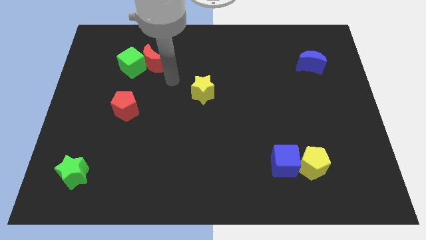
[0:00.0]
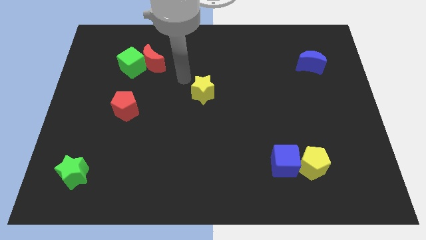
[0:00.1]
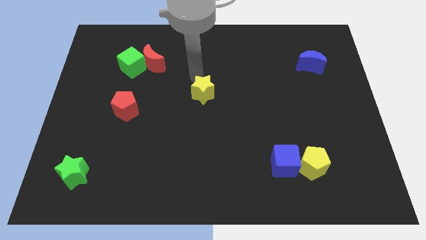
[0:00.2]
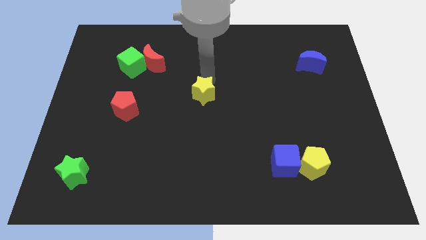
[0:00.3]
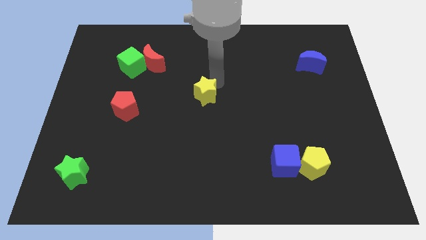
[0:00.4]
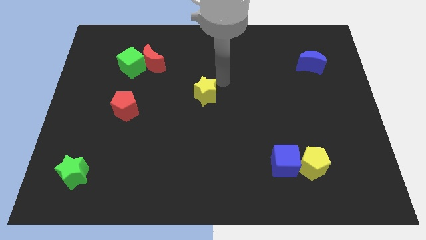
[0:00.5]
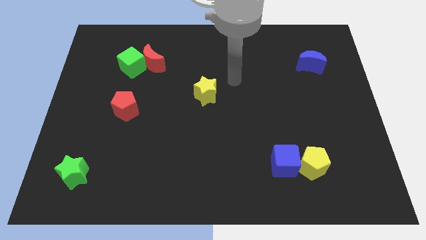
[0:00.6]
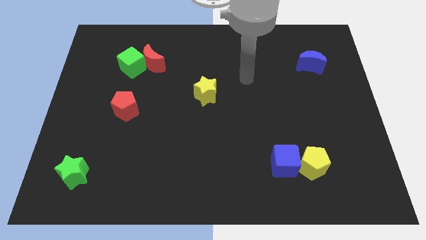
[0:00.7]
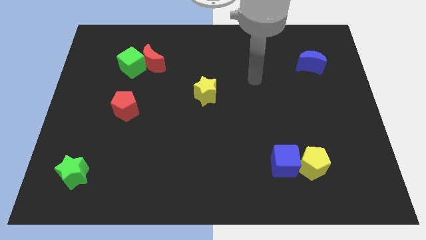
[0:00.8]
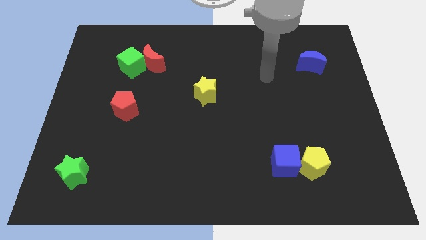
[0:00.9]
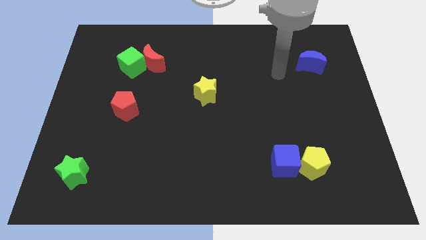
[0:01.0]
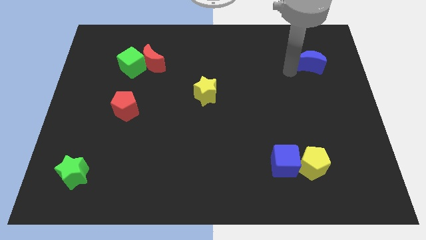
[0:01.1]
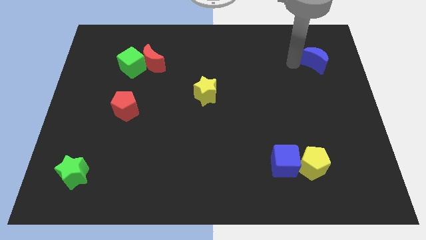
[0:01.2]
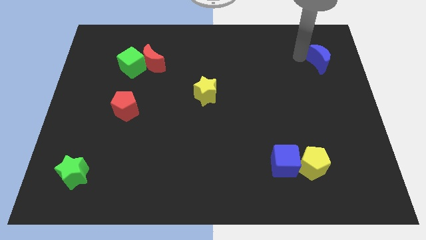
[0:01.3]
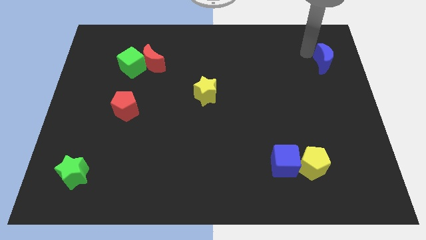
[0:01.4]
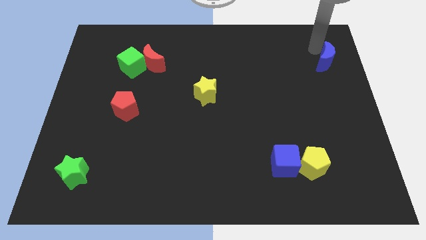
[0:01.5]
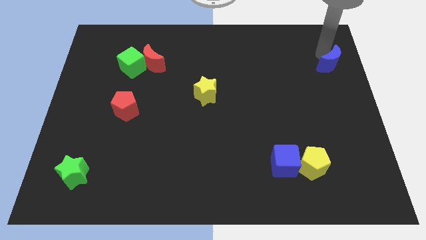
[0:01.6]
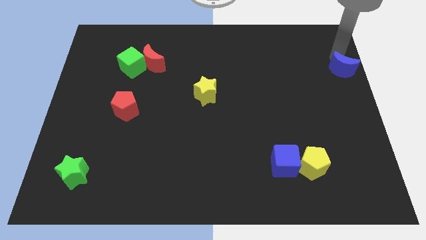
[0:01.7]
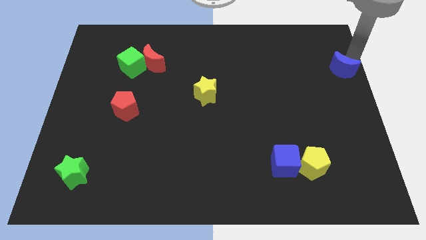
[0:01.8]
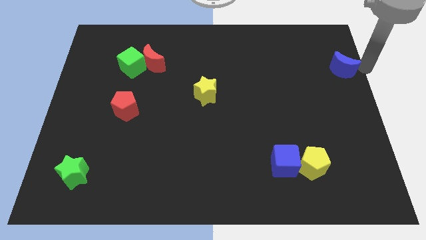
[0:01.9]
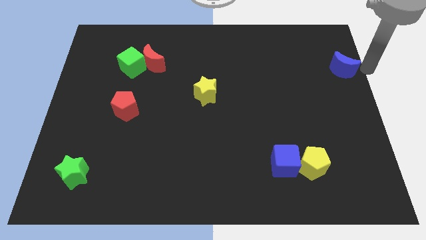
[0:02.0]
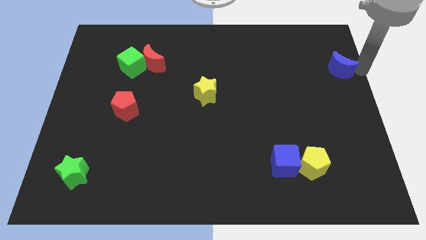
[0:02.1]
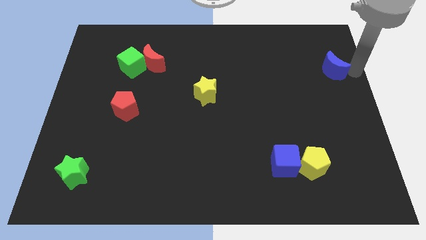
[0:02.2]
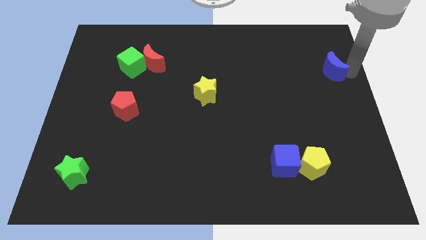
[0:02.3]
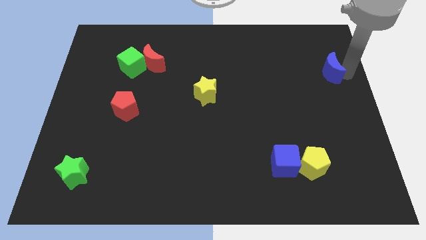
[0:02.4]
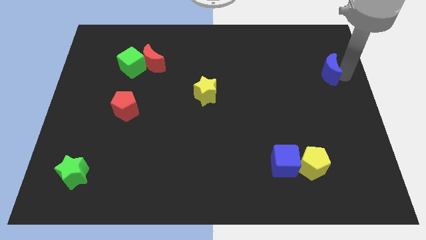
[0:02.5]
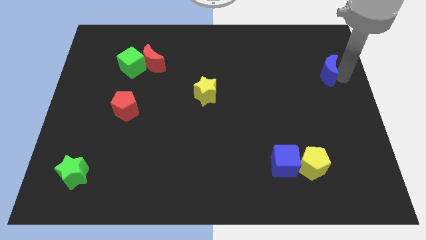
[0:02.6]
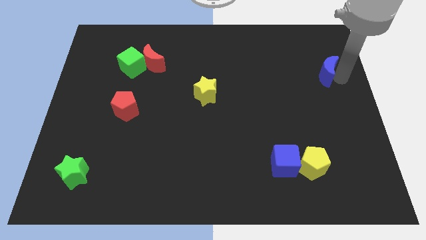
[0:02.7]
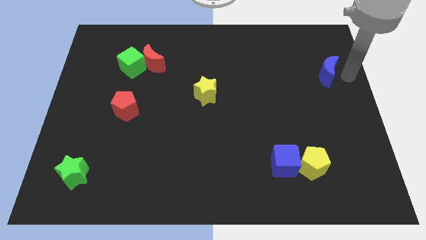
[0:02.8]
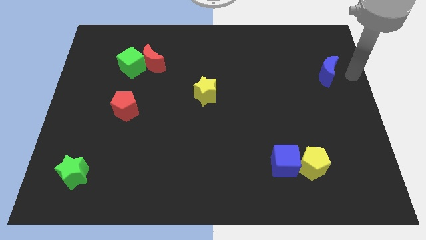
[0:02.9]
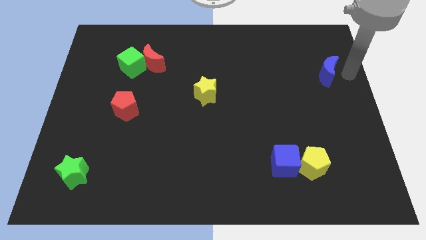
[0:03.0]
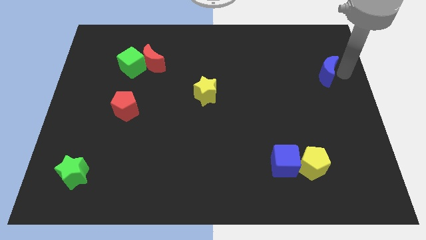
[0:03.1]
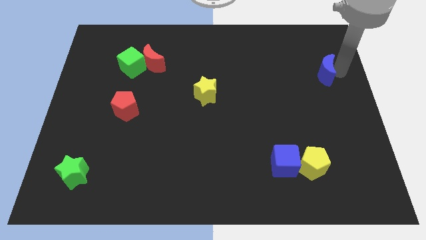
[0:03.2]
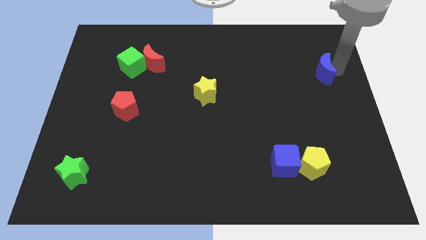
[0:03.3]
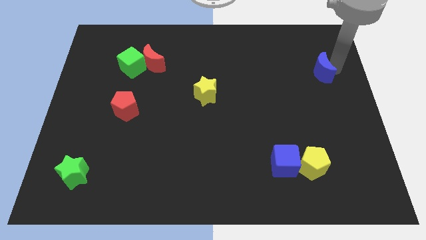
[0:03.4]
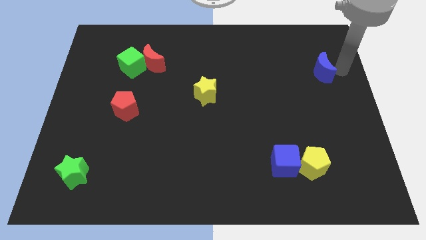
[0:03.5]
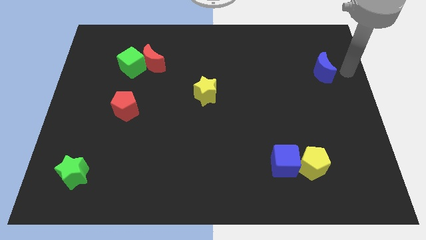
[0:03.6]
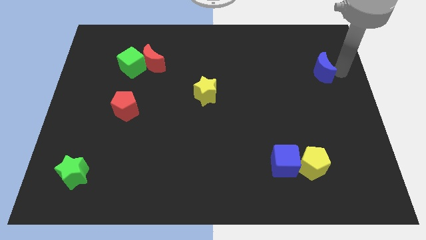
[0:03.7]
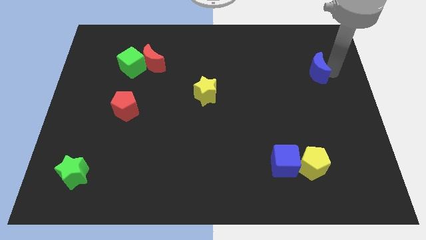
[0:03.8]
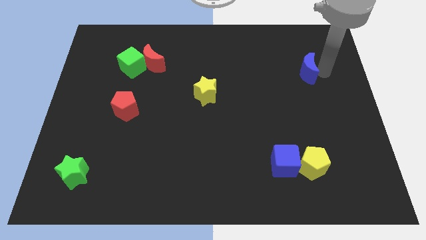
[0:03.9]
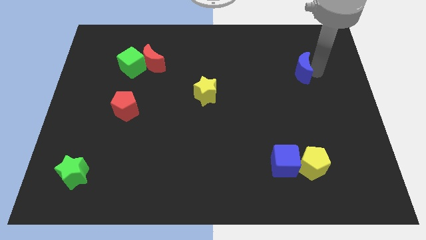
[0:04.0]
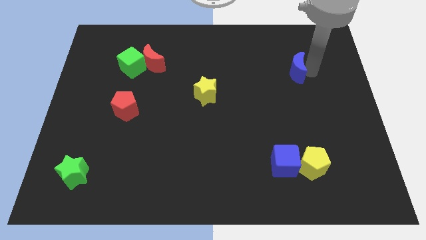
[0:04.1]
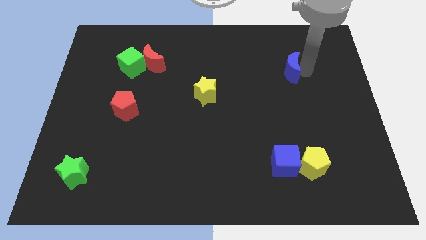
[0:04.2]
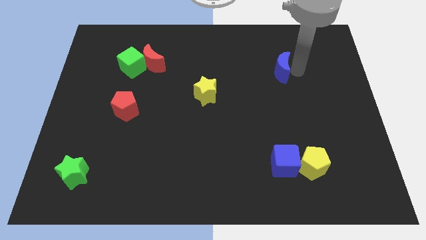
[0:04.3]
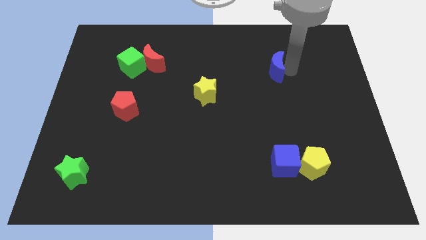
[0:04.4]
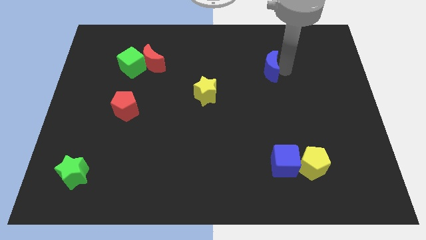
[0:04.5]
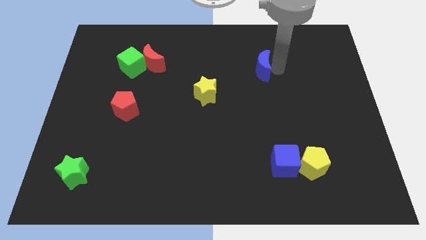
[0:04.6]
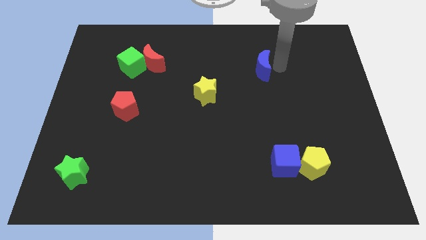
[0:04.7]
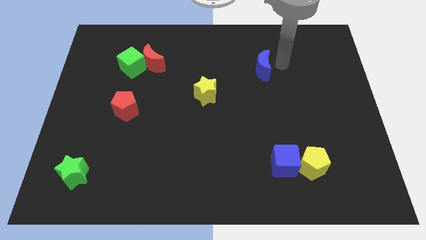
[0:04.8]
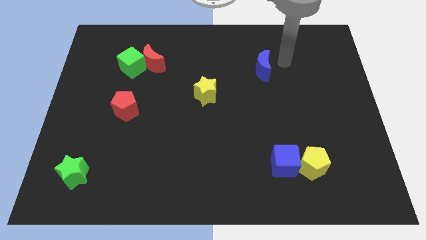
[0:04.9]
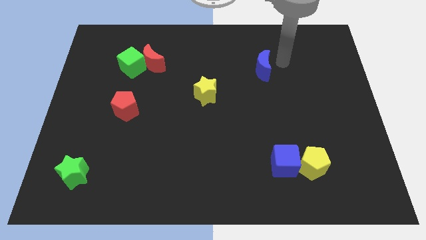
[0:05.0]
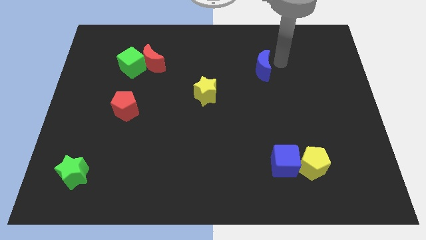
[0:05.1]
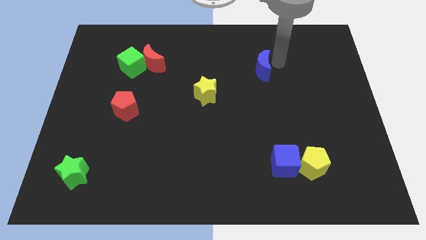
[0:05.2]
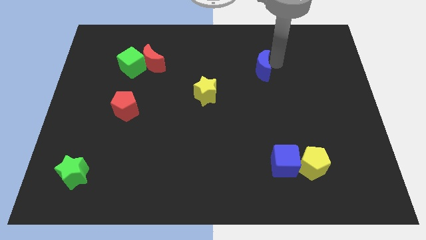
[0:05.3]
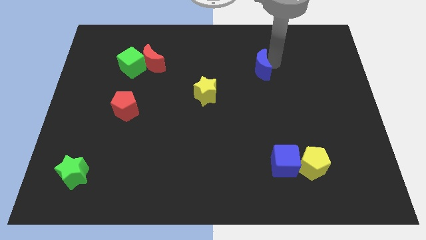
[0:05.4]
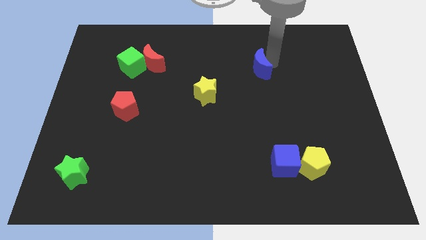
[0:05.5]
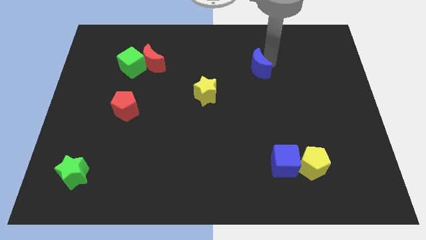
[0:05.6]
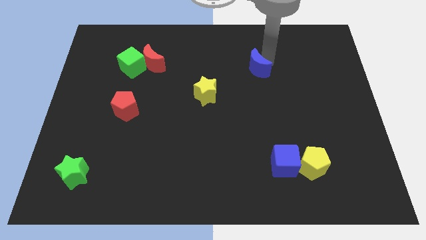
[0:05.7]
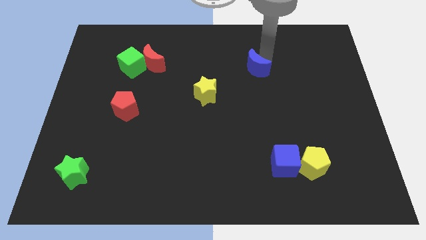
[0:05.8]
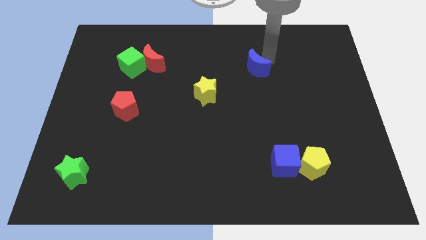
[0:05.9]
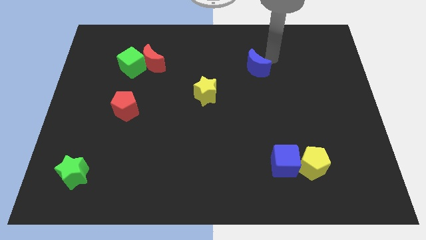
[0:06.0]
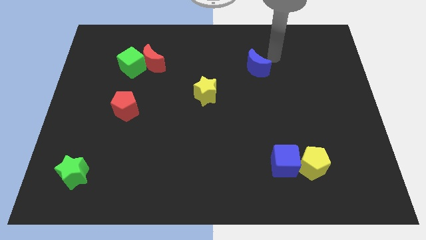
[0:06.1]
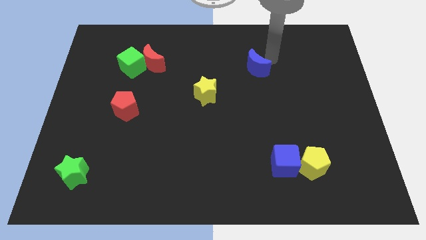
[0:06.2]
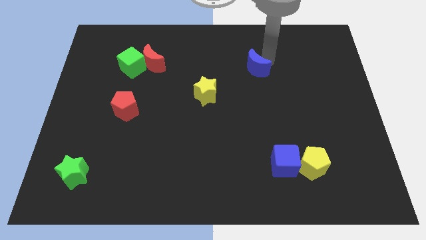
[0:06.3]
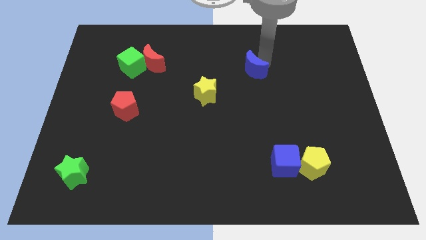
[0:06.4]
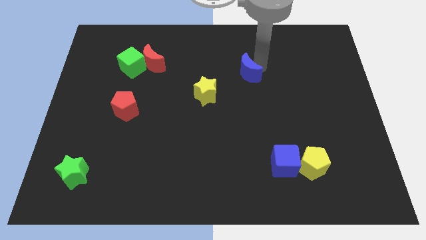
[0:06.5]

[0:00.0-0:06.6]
move the blue moon to the top right side of the yellow star

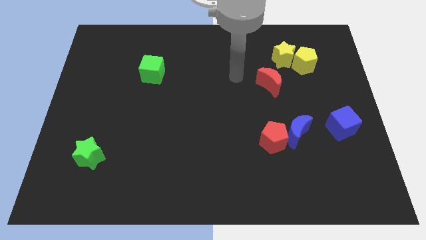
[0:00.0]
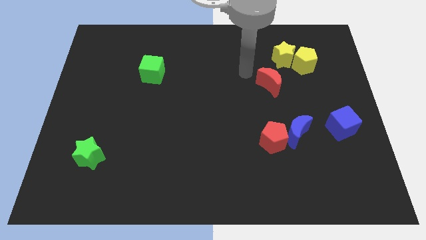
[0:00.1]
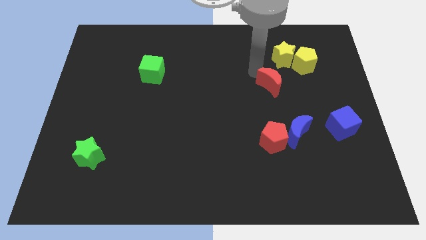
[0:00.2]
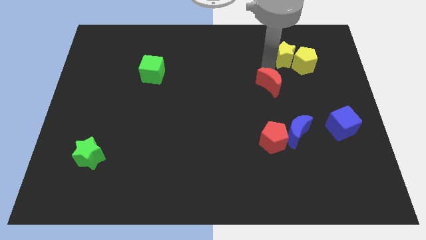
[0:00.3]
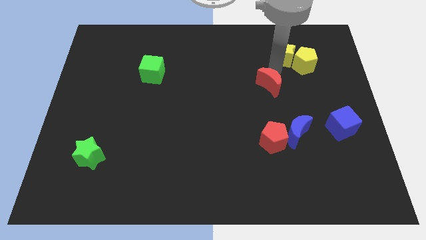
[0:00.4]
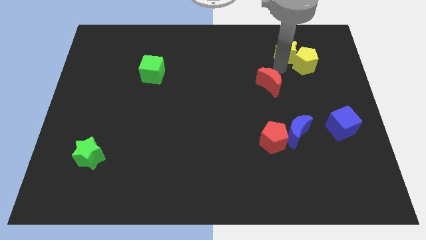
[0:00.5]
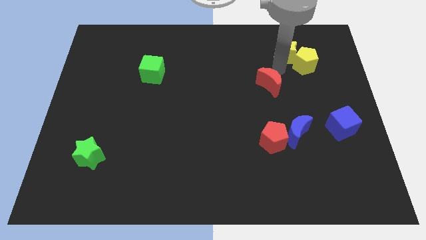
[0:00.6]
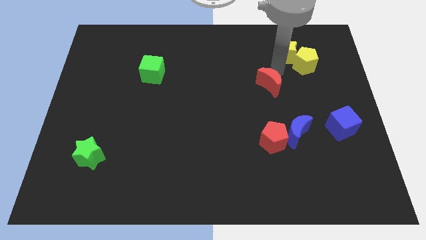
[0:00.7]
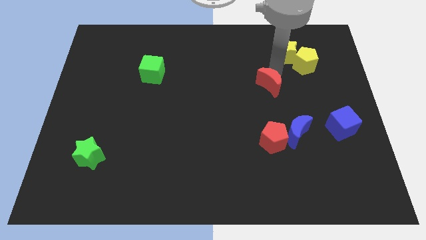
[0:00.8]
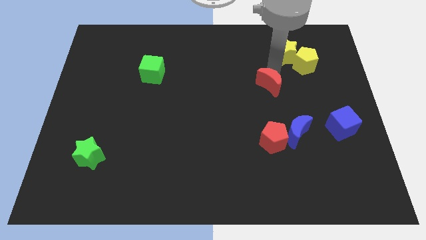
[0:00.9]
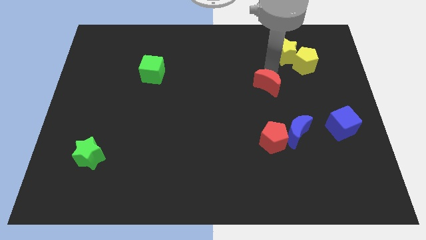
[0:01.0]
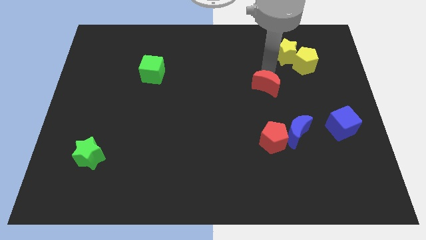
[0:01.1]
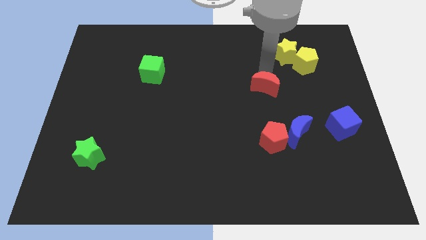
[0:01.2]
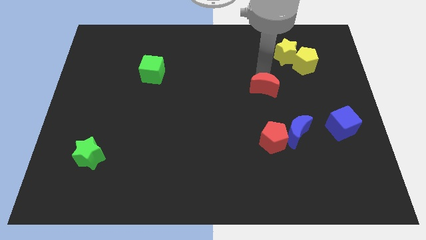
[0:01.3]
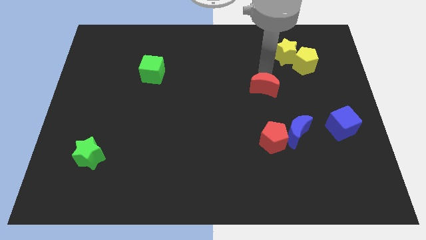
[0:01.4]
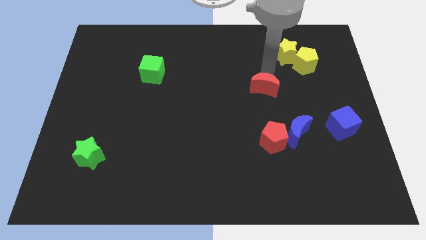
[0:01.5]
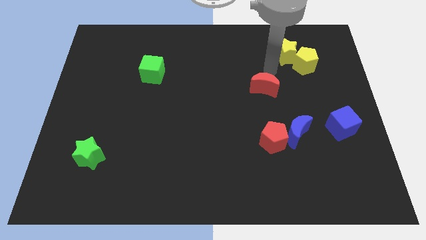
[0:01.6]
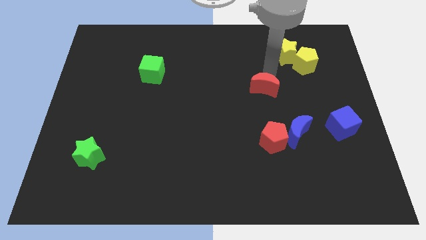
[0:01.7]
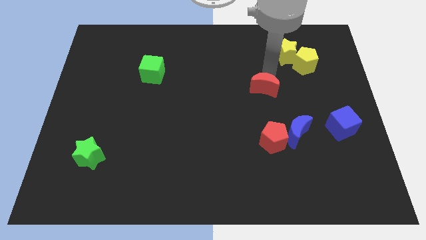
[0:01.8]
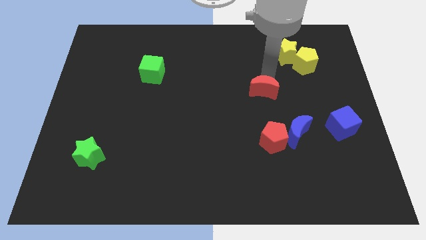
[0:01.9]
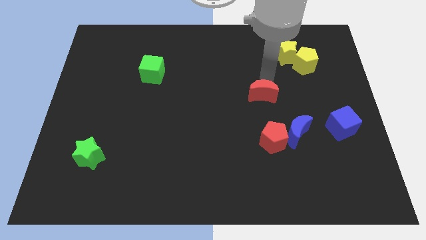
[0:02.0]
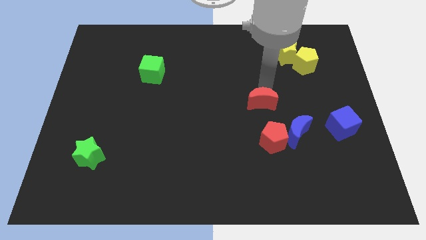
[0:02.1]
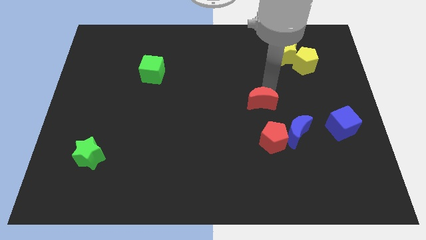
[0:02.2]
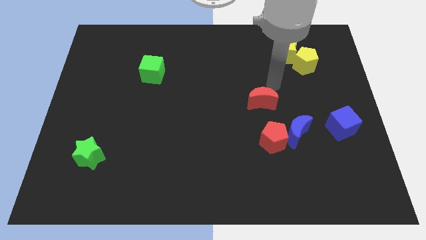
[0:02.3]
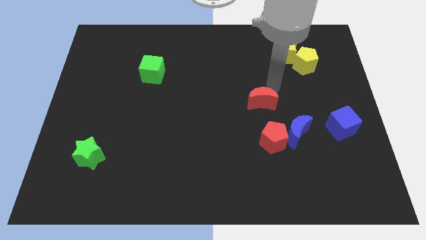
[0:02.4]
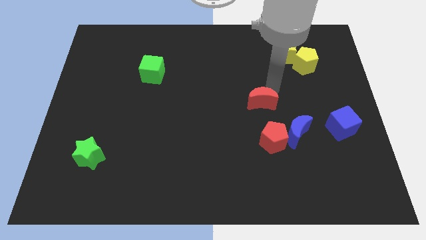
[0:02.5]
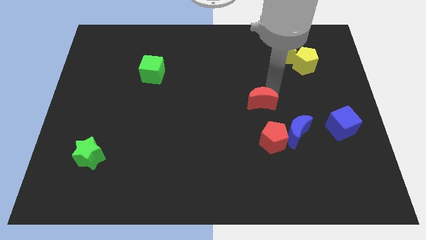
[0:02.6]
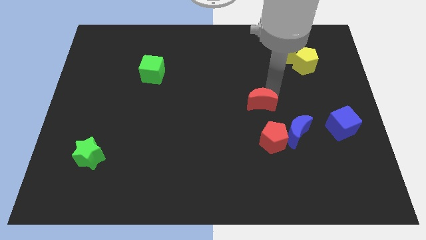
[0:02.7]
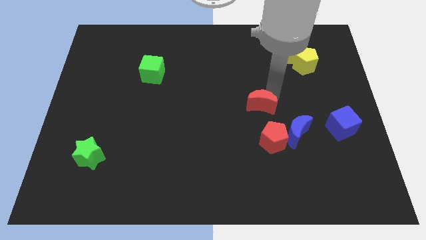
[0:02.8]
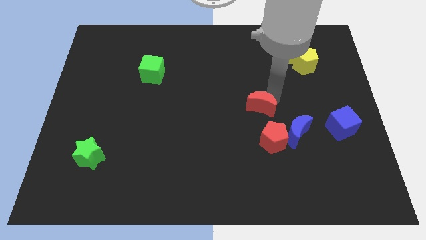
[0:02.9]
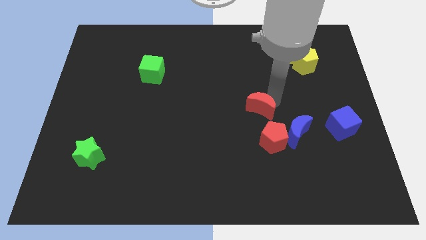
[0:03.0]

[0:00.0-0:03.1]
put the red moon to the top left side of the red pentagon
